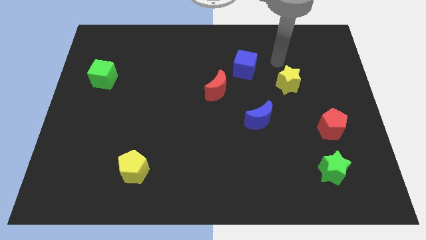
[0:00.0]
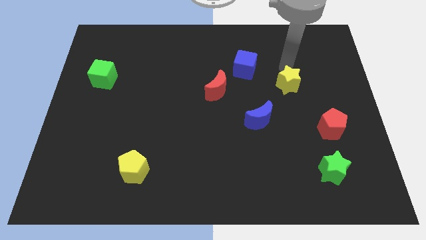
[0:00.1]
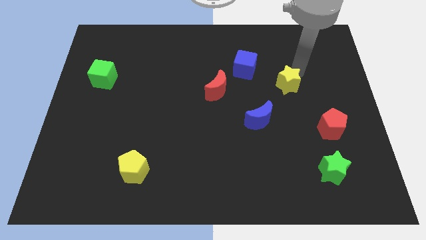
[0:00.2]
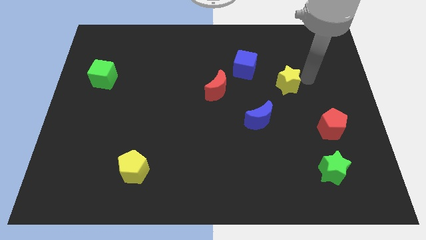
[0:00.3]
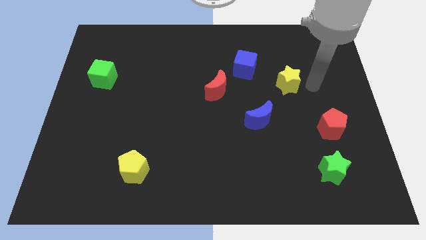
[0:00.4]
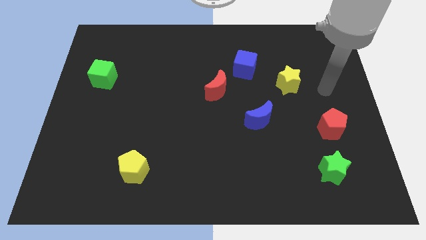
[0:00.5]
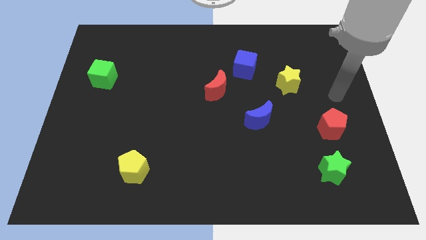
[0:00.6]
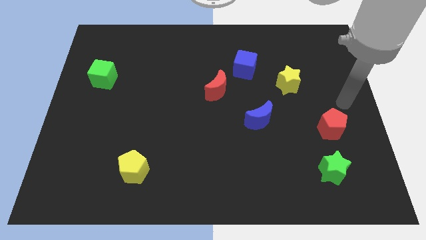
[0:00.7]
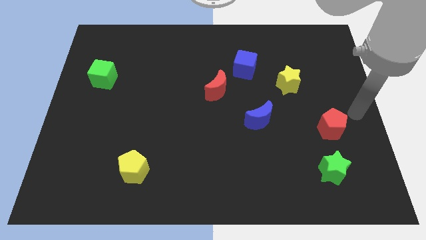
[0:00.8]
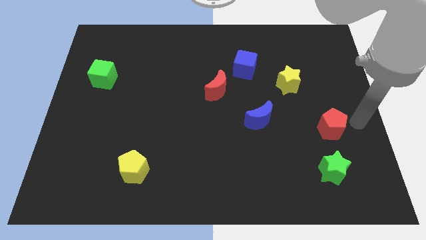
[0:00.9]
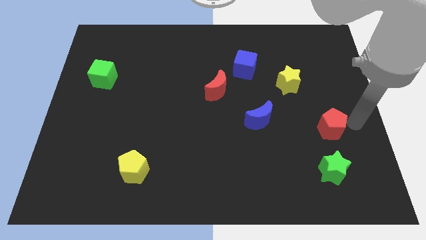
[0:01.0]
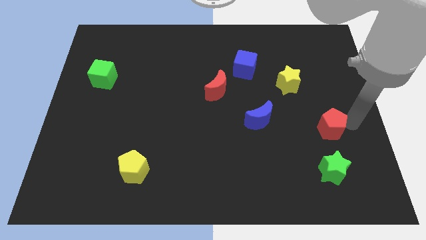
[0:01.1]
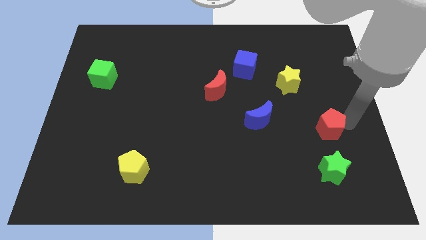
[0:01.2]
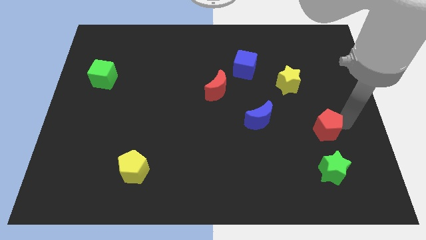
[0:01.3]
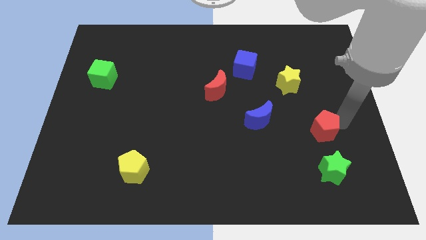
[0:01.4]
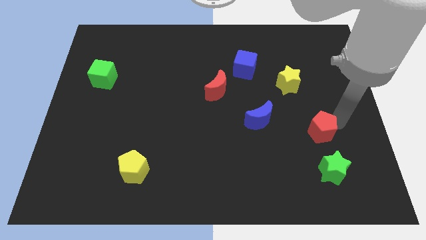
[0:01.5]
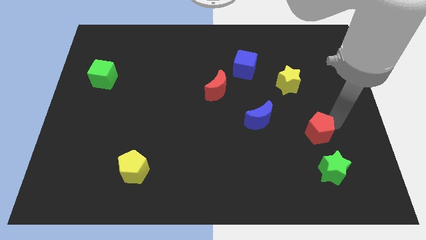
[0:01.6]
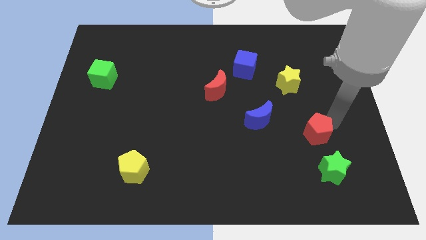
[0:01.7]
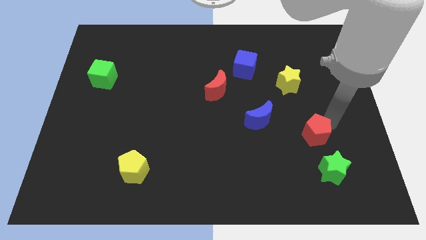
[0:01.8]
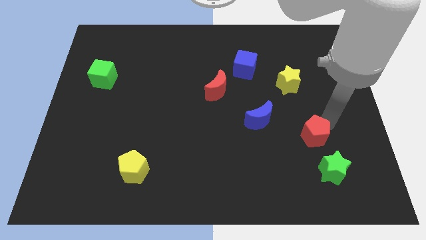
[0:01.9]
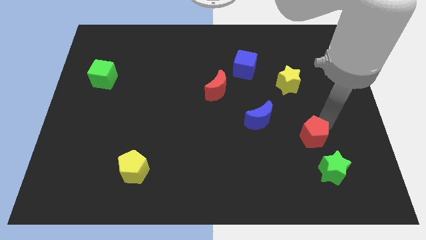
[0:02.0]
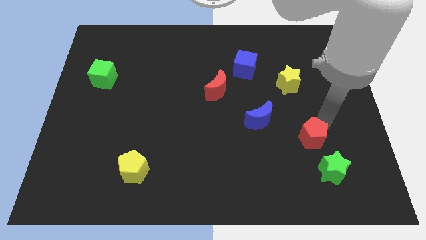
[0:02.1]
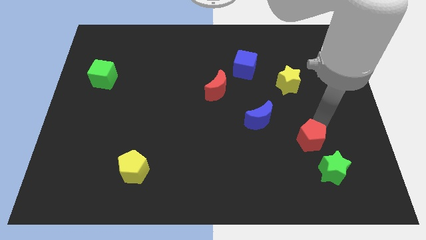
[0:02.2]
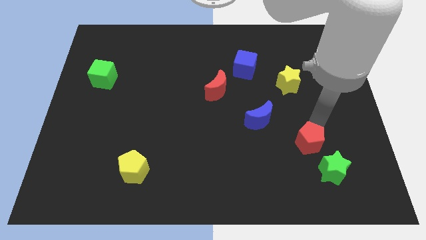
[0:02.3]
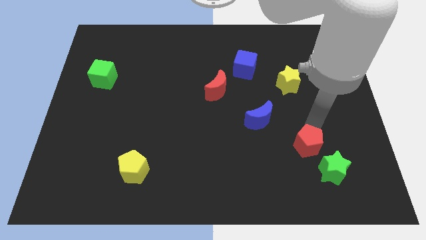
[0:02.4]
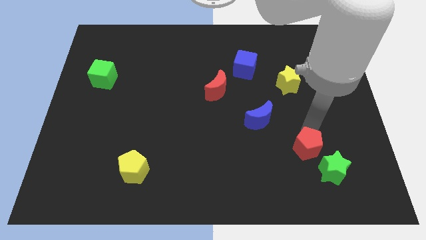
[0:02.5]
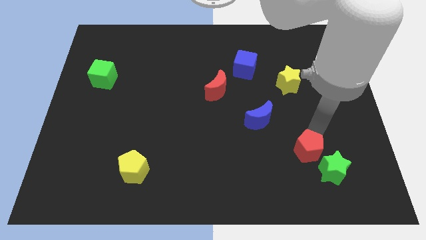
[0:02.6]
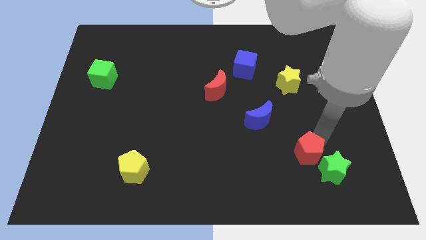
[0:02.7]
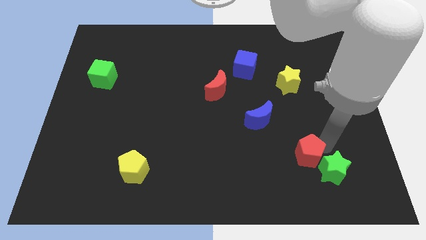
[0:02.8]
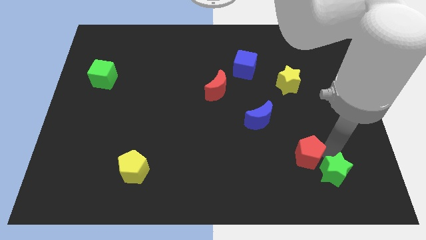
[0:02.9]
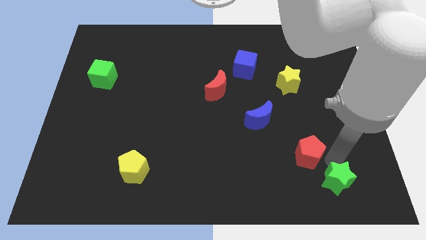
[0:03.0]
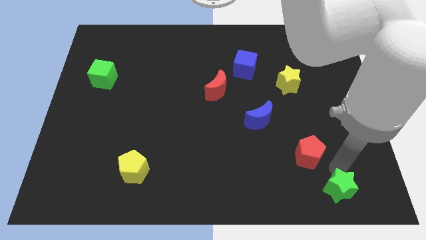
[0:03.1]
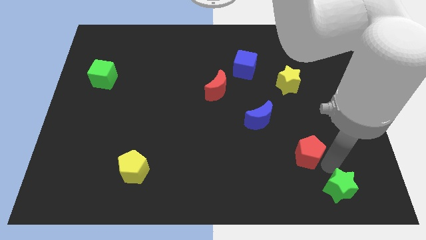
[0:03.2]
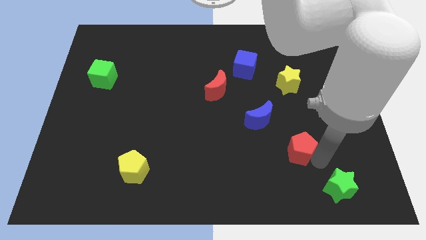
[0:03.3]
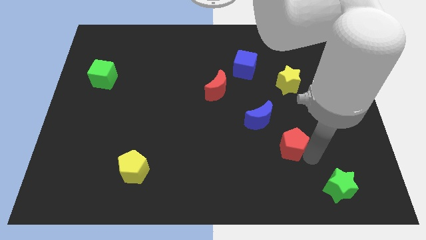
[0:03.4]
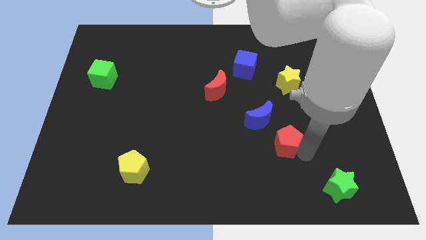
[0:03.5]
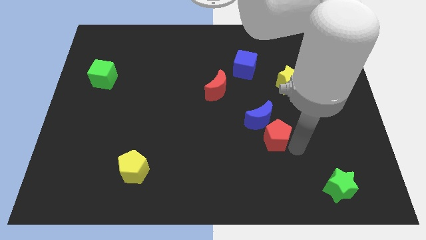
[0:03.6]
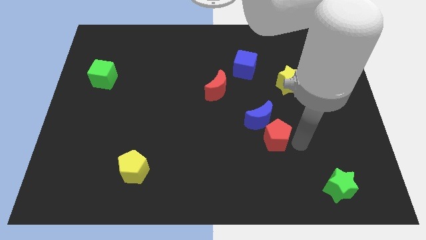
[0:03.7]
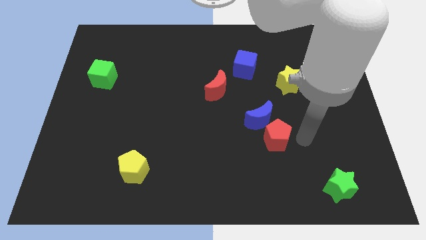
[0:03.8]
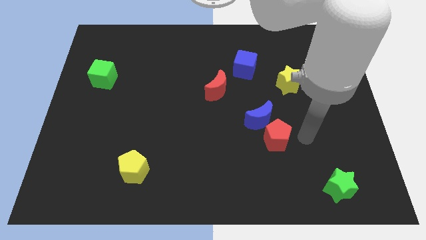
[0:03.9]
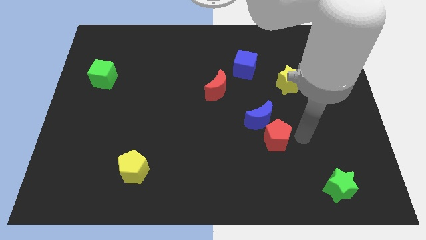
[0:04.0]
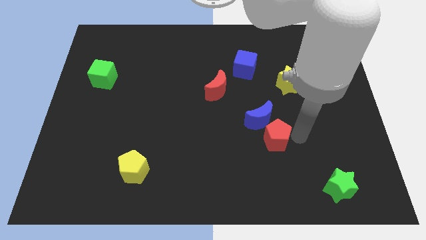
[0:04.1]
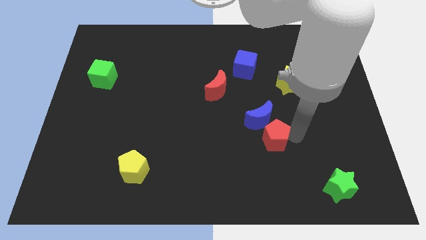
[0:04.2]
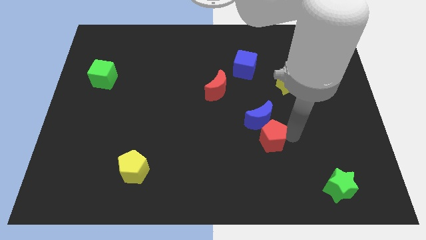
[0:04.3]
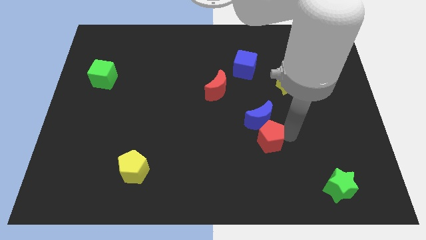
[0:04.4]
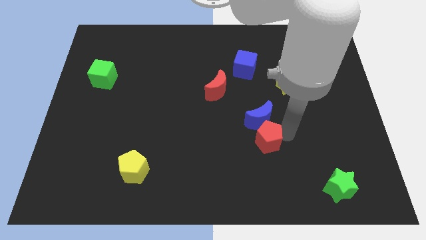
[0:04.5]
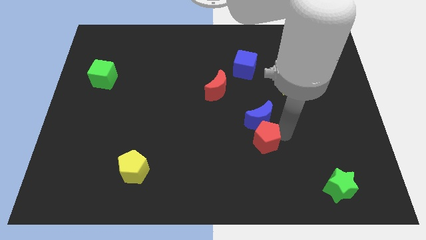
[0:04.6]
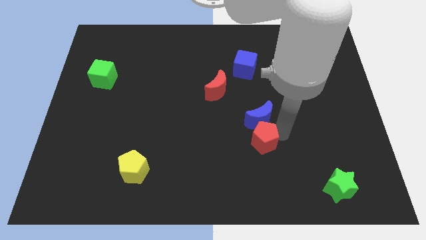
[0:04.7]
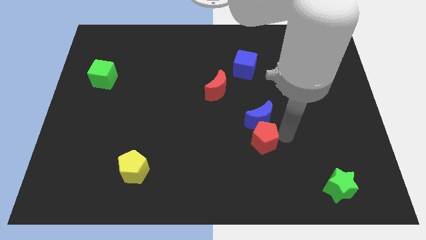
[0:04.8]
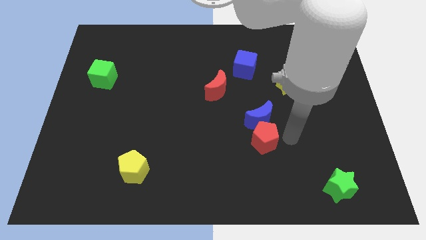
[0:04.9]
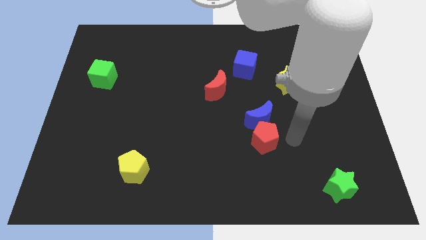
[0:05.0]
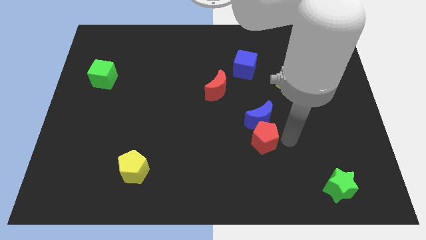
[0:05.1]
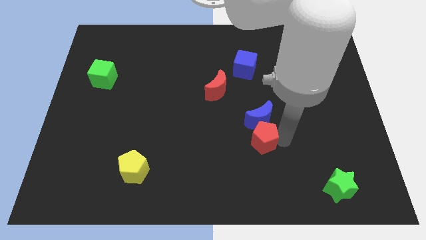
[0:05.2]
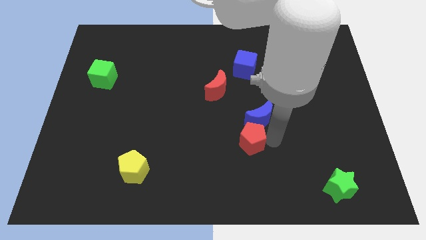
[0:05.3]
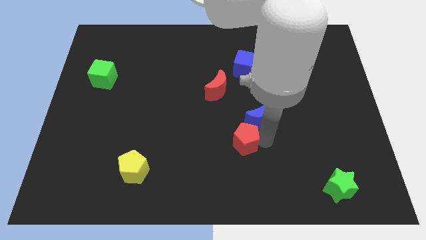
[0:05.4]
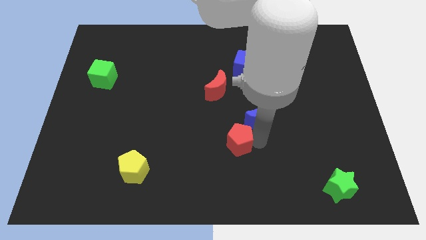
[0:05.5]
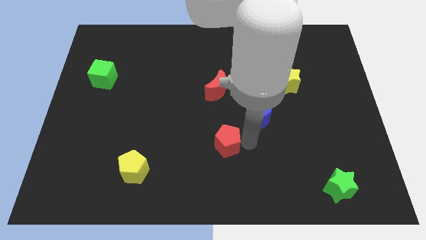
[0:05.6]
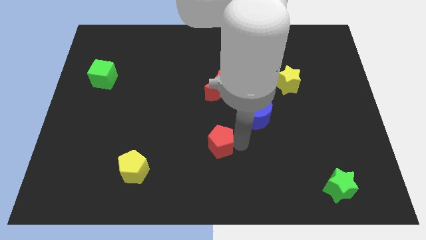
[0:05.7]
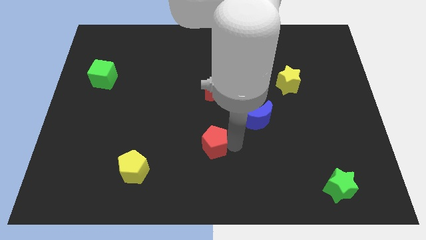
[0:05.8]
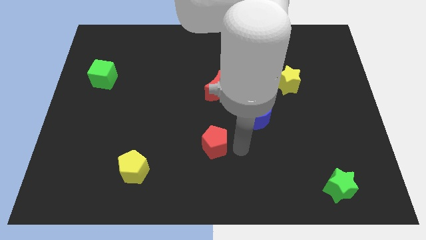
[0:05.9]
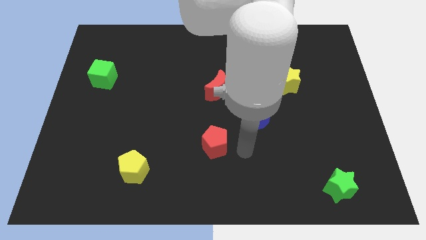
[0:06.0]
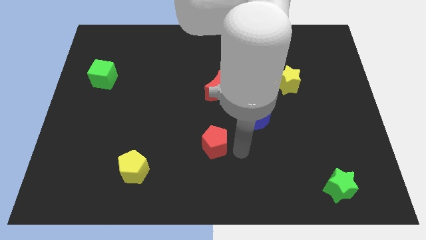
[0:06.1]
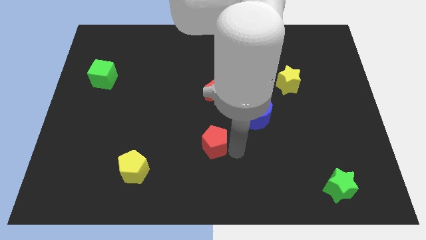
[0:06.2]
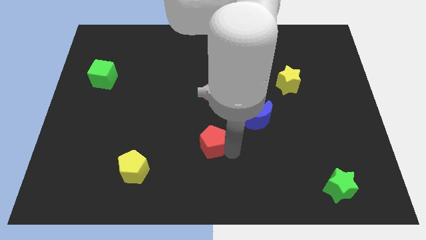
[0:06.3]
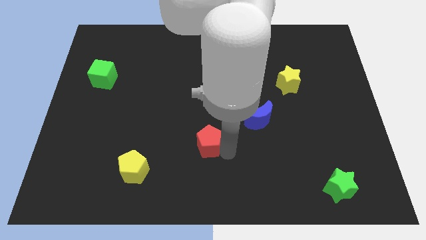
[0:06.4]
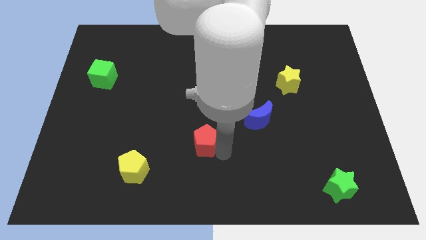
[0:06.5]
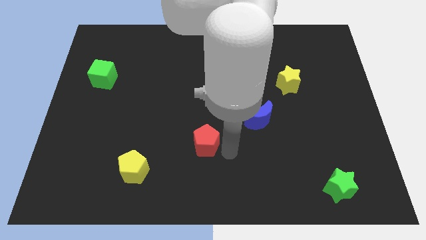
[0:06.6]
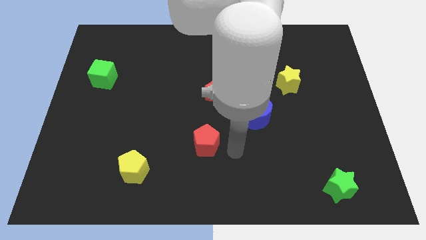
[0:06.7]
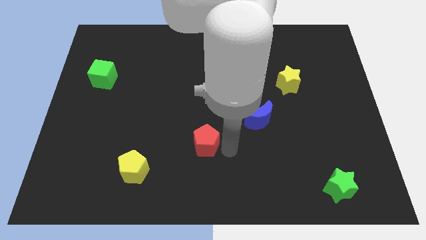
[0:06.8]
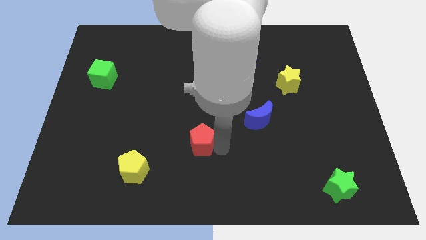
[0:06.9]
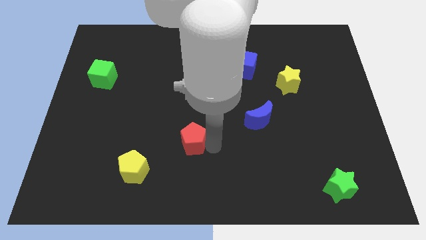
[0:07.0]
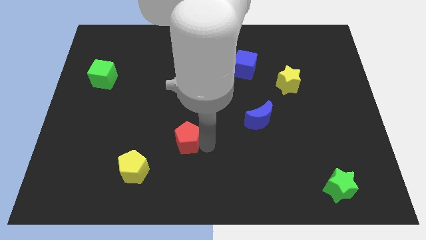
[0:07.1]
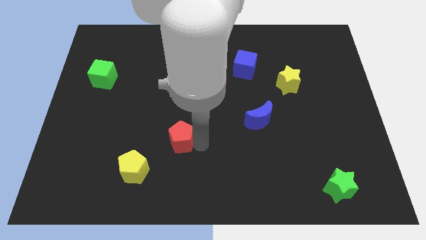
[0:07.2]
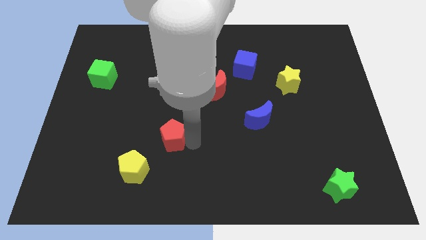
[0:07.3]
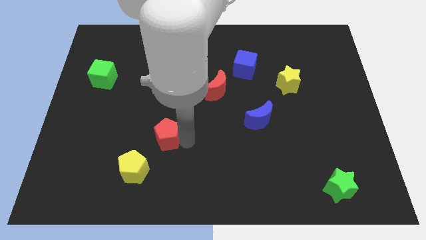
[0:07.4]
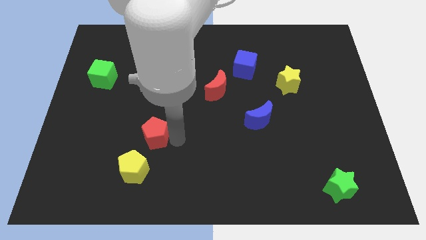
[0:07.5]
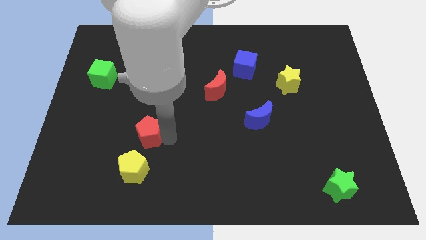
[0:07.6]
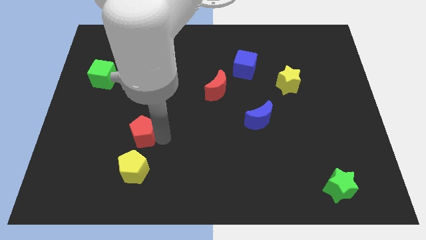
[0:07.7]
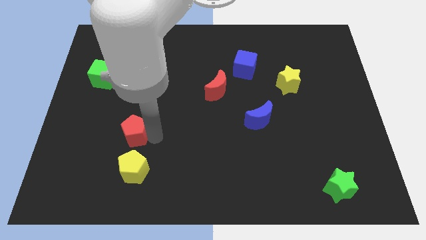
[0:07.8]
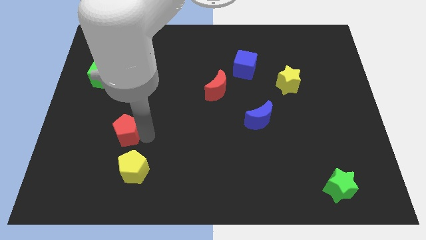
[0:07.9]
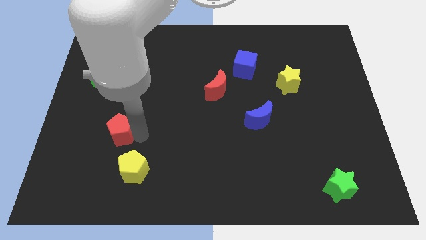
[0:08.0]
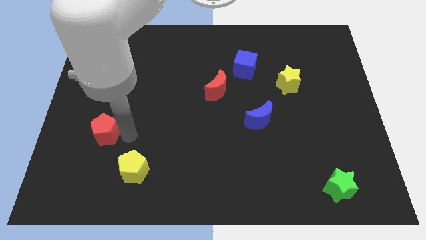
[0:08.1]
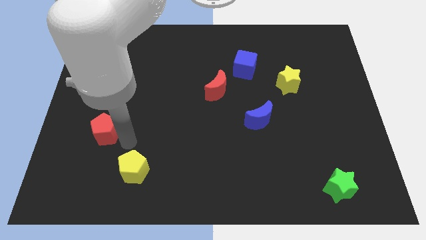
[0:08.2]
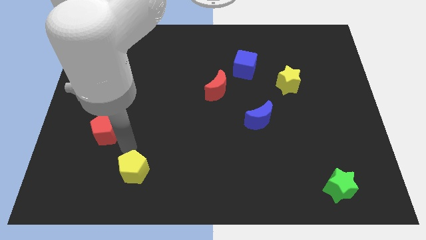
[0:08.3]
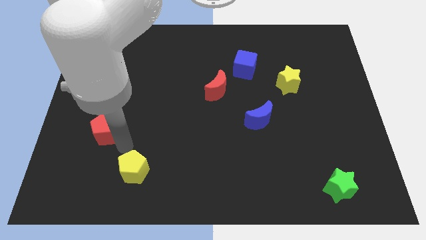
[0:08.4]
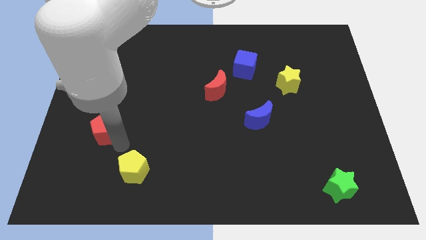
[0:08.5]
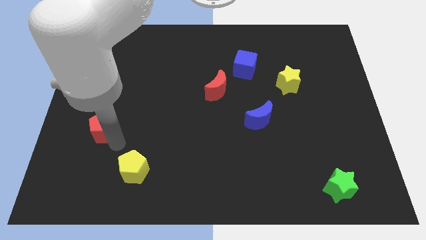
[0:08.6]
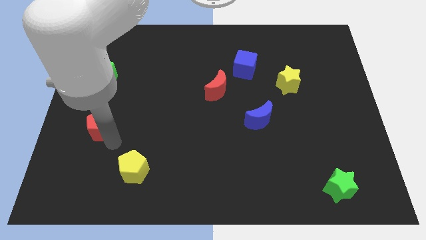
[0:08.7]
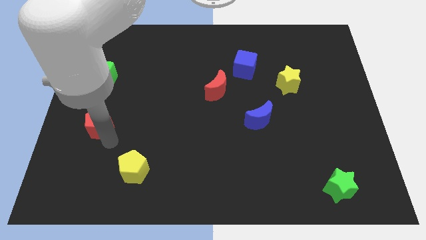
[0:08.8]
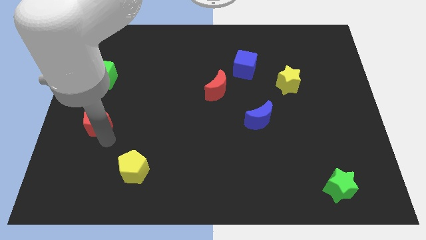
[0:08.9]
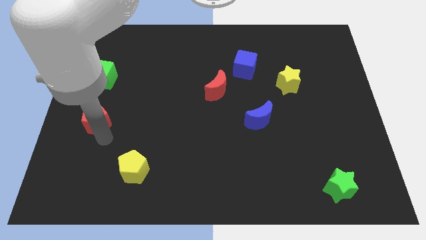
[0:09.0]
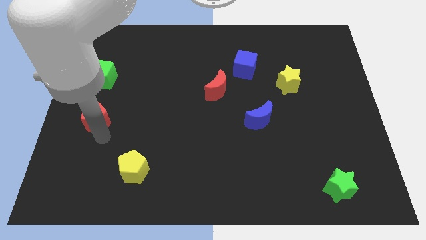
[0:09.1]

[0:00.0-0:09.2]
slide the red pentagon to the left side
